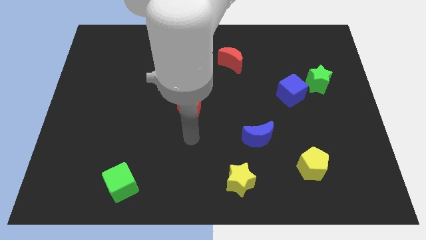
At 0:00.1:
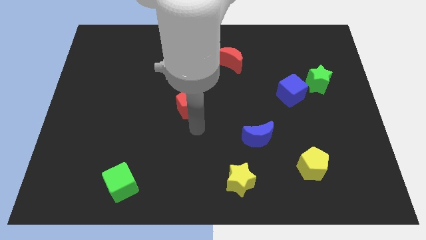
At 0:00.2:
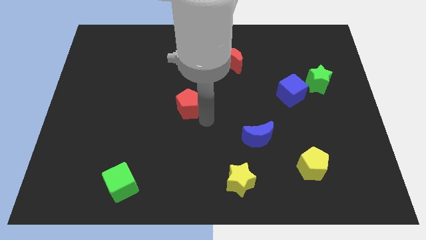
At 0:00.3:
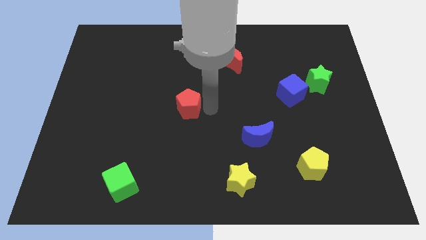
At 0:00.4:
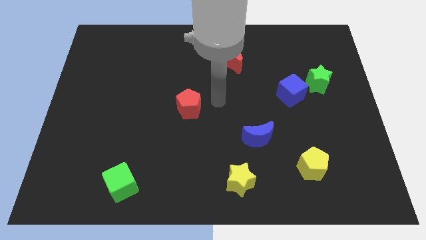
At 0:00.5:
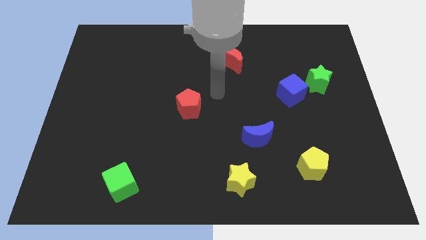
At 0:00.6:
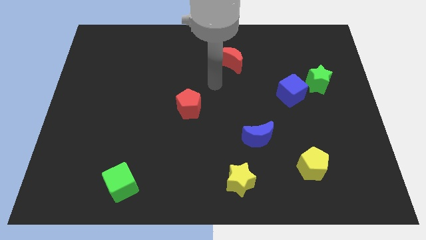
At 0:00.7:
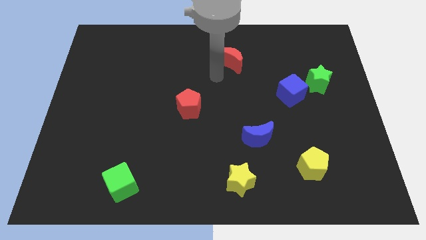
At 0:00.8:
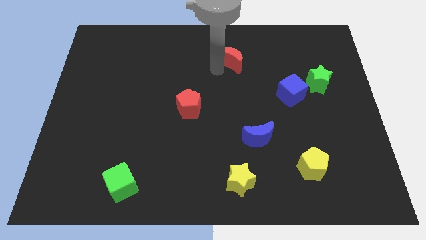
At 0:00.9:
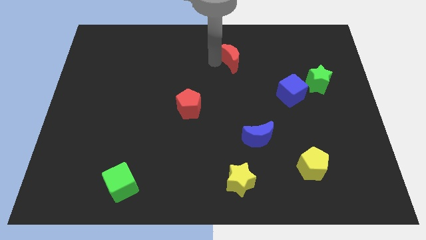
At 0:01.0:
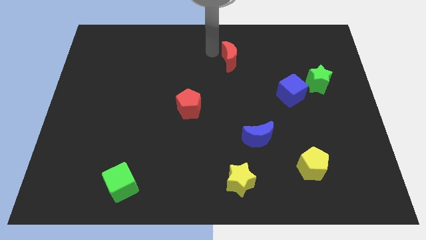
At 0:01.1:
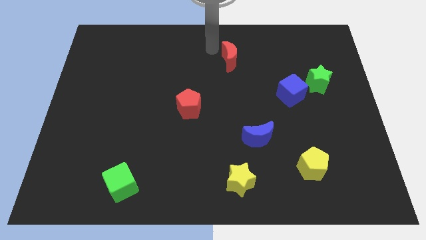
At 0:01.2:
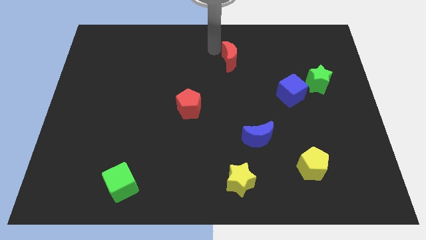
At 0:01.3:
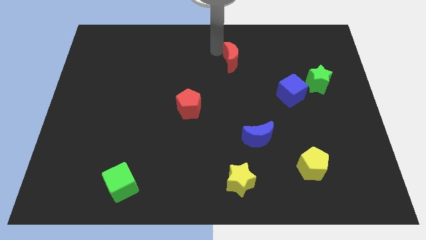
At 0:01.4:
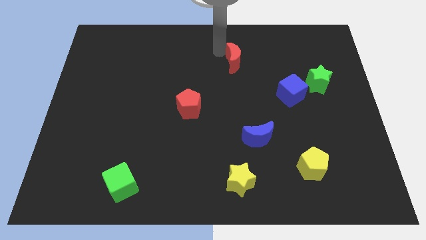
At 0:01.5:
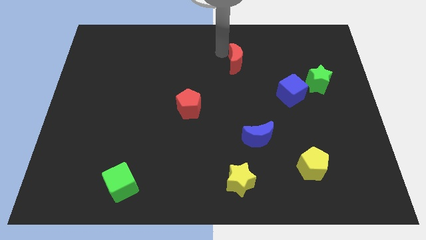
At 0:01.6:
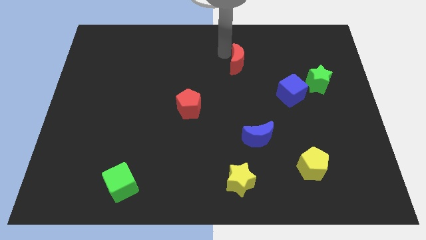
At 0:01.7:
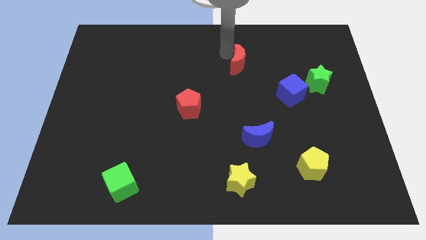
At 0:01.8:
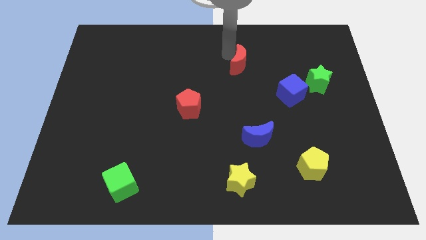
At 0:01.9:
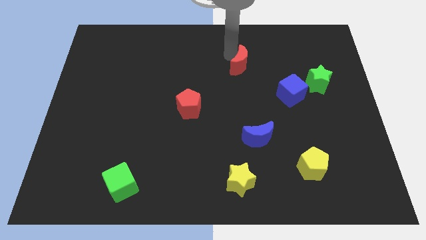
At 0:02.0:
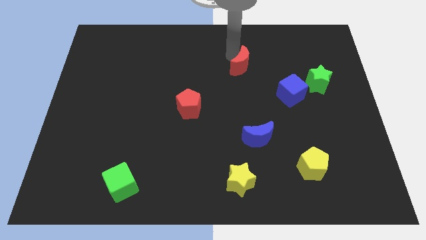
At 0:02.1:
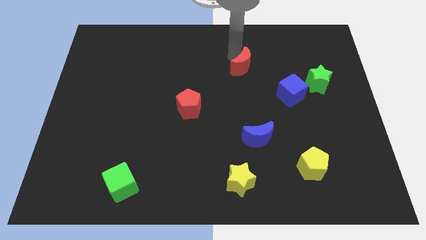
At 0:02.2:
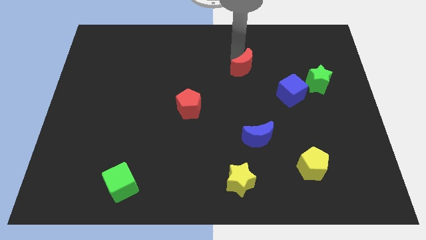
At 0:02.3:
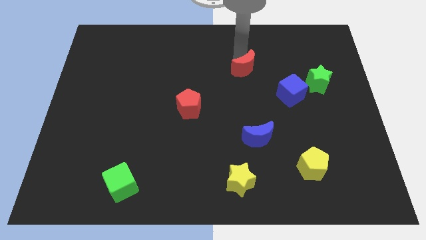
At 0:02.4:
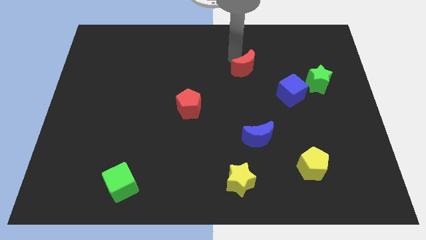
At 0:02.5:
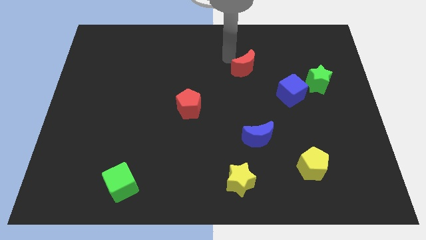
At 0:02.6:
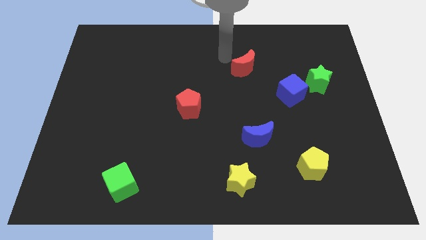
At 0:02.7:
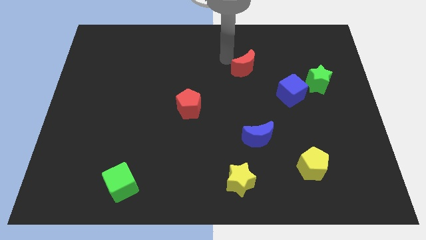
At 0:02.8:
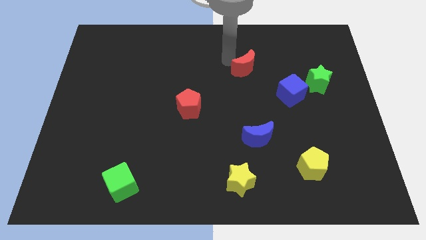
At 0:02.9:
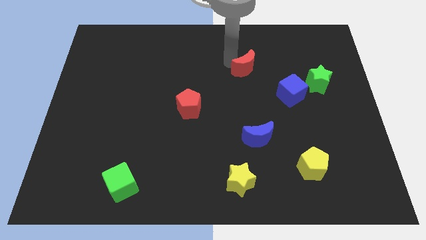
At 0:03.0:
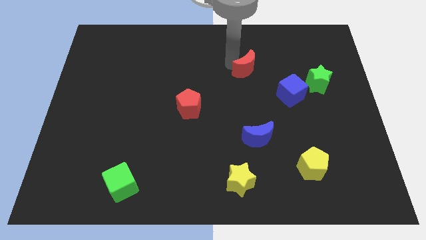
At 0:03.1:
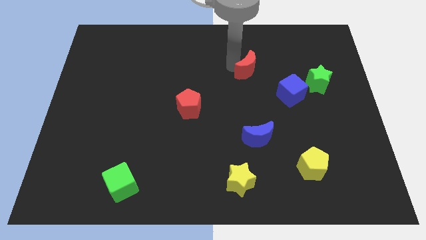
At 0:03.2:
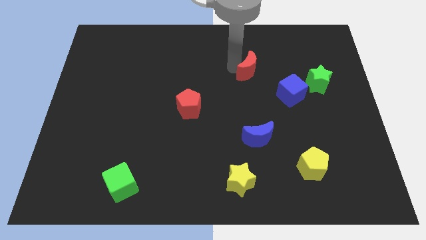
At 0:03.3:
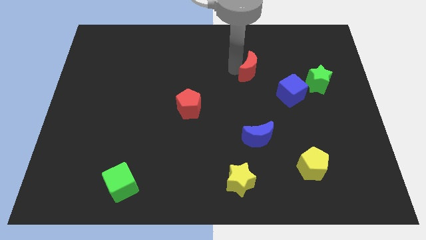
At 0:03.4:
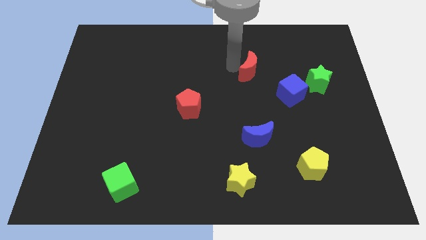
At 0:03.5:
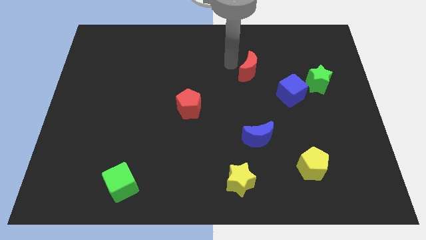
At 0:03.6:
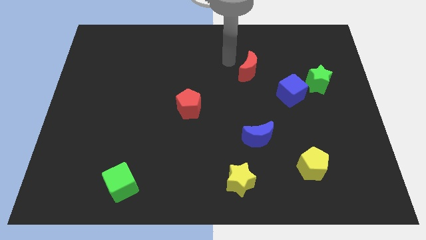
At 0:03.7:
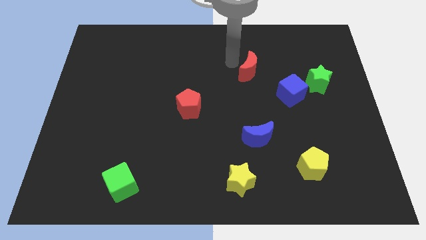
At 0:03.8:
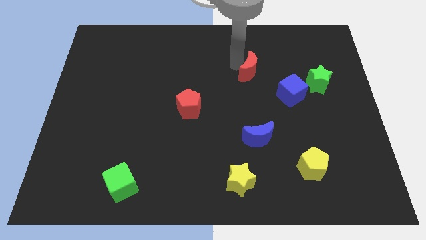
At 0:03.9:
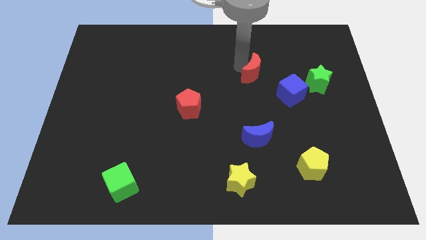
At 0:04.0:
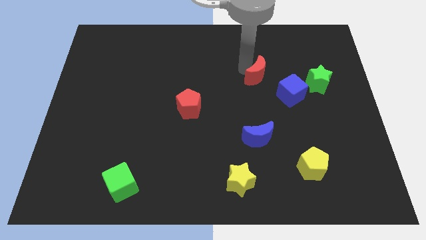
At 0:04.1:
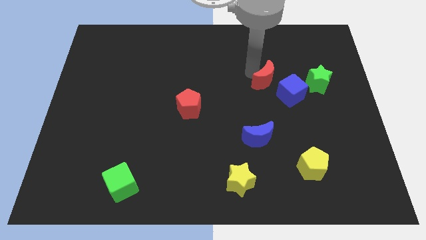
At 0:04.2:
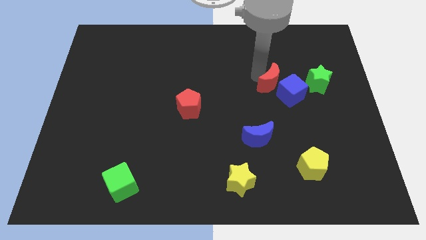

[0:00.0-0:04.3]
move the red moon close to the blue cube

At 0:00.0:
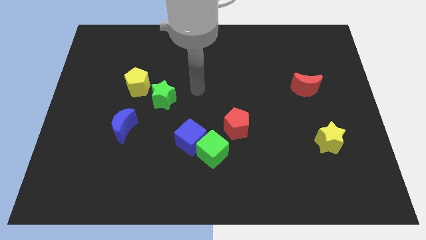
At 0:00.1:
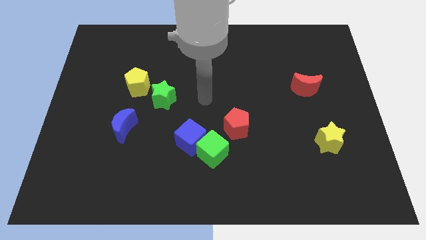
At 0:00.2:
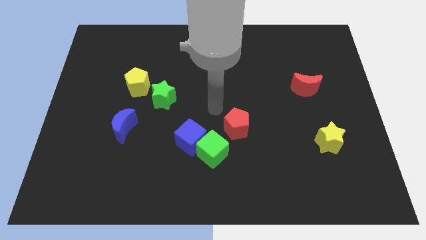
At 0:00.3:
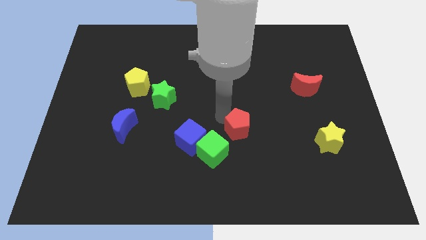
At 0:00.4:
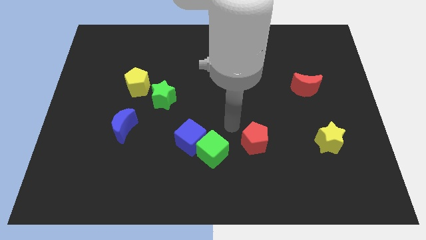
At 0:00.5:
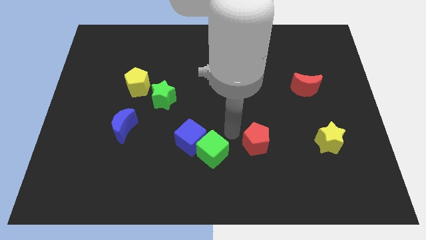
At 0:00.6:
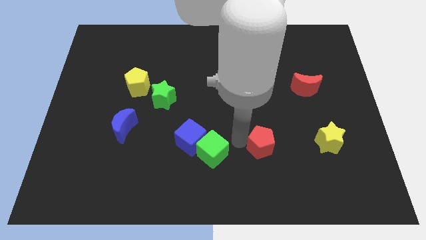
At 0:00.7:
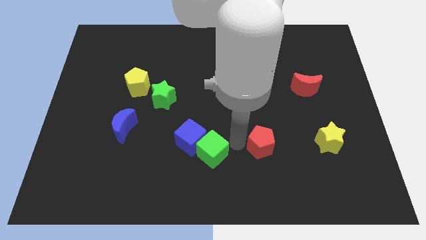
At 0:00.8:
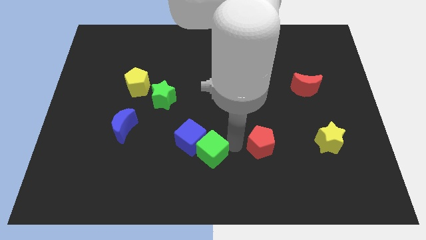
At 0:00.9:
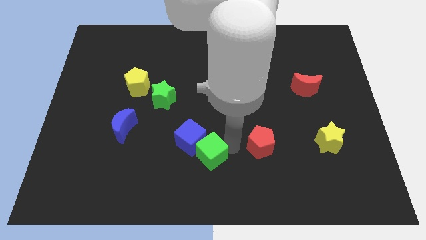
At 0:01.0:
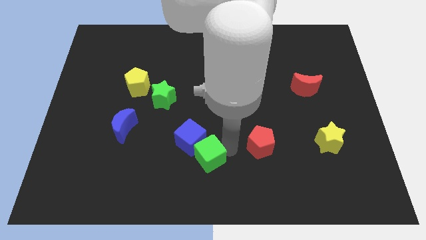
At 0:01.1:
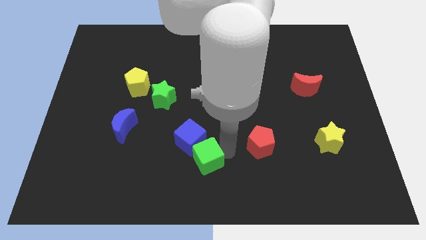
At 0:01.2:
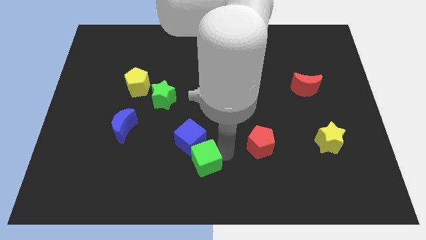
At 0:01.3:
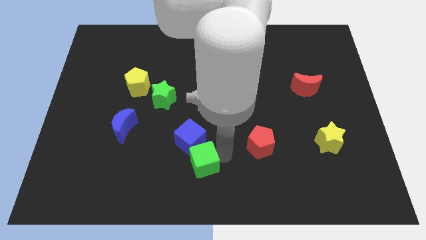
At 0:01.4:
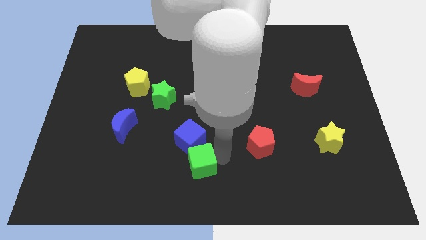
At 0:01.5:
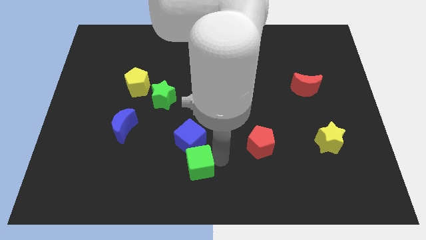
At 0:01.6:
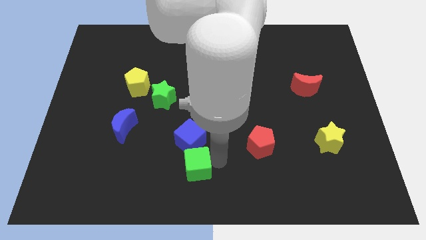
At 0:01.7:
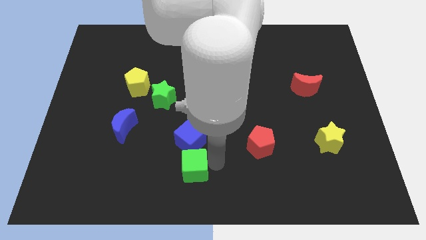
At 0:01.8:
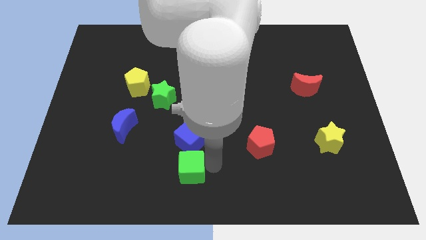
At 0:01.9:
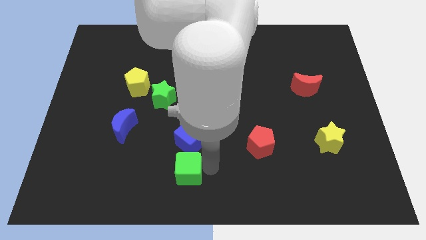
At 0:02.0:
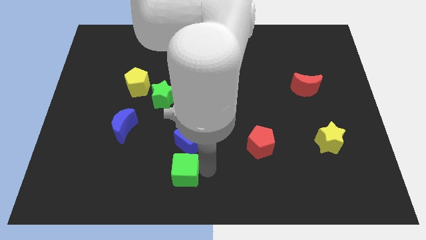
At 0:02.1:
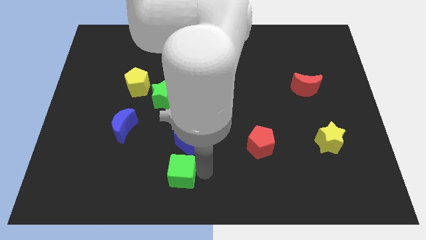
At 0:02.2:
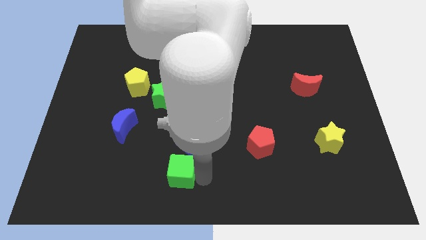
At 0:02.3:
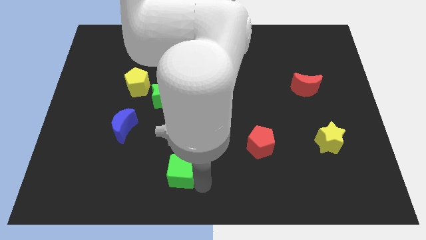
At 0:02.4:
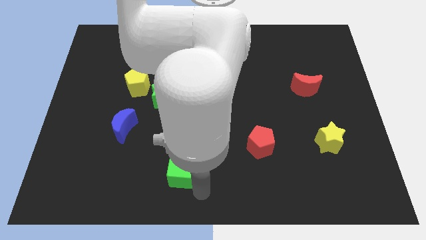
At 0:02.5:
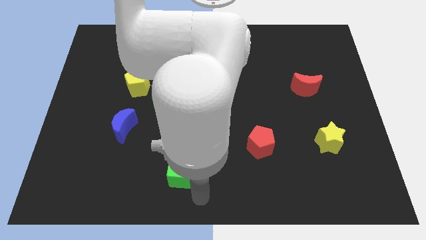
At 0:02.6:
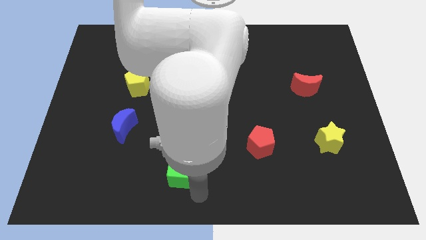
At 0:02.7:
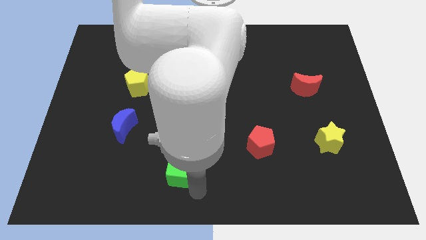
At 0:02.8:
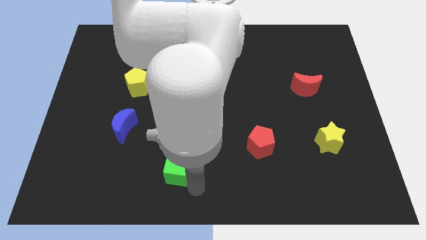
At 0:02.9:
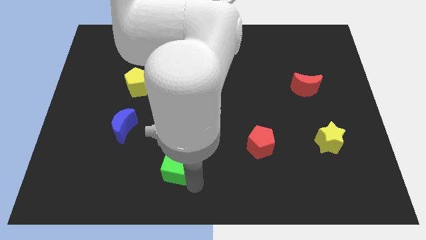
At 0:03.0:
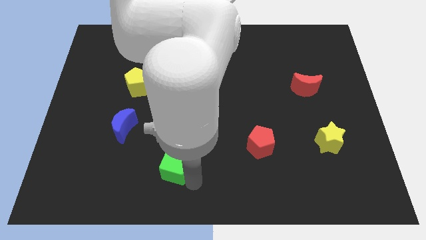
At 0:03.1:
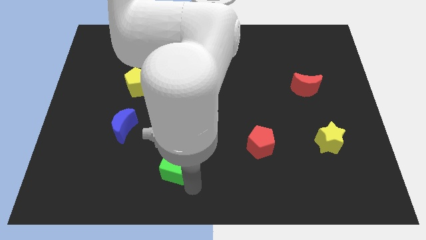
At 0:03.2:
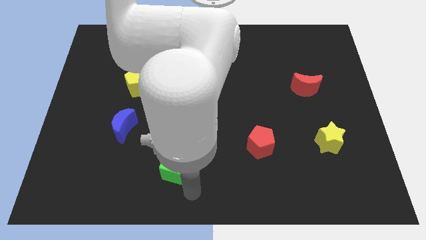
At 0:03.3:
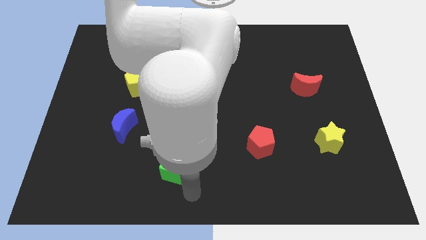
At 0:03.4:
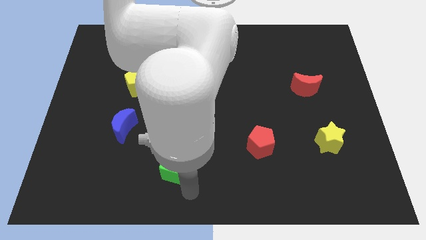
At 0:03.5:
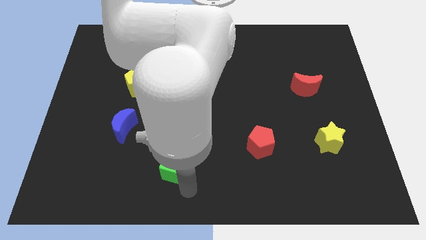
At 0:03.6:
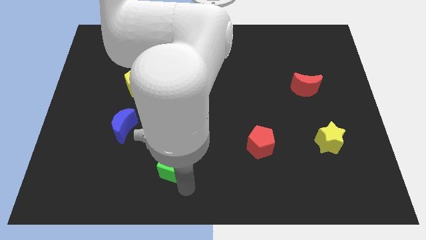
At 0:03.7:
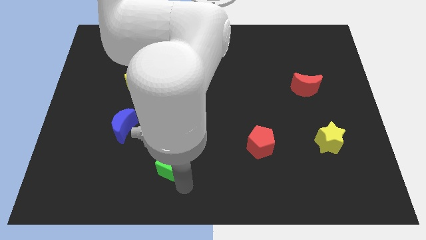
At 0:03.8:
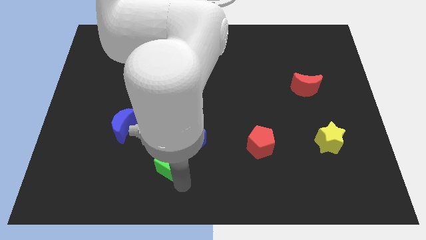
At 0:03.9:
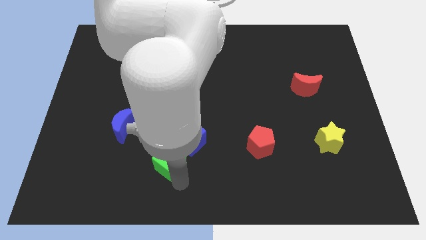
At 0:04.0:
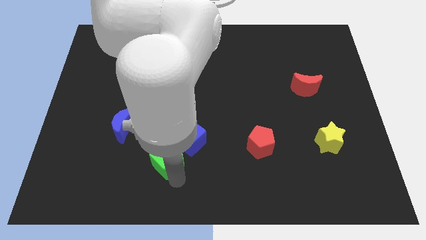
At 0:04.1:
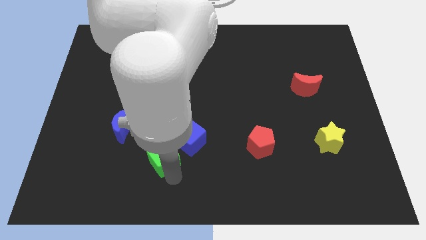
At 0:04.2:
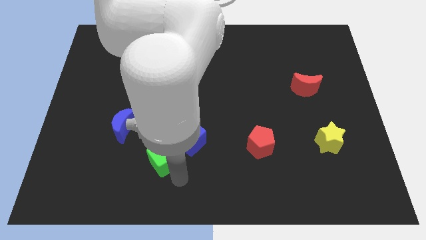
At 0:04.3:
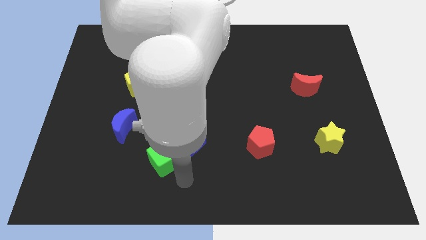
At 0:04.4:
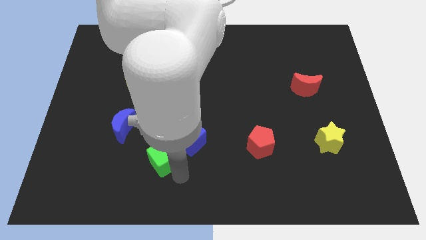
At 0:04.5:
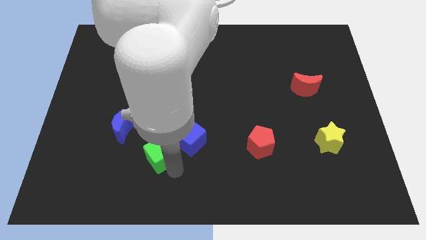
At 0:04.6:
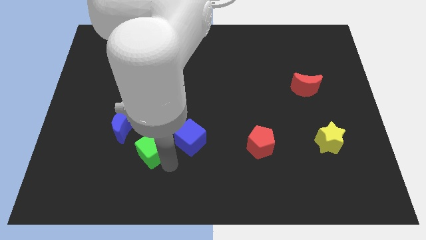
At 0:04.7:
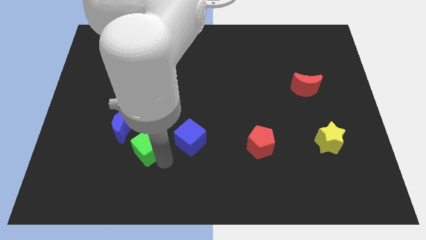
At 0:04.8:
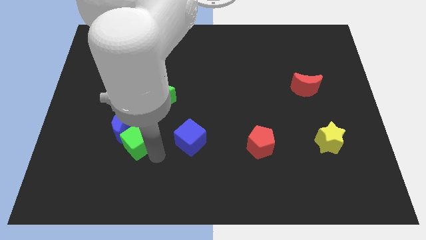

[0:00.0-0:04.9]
put the green cube towards the blue moon
